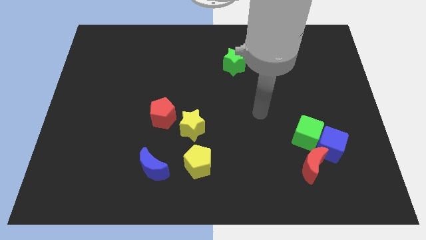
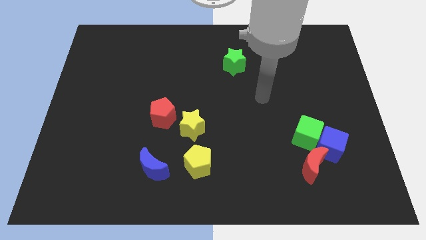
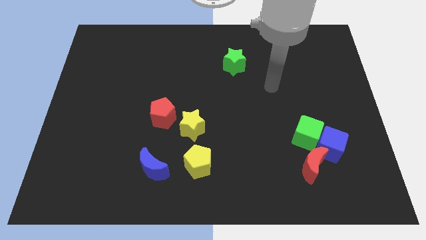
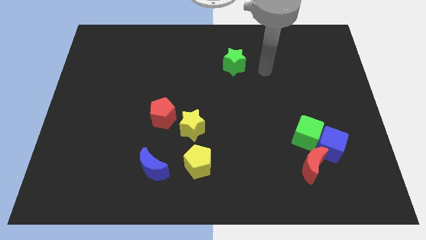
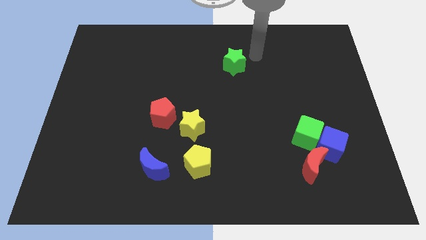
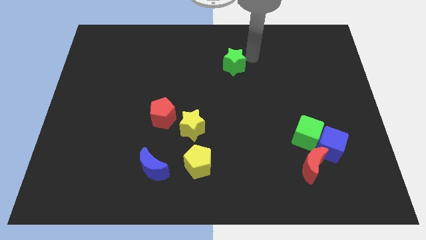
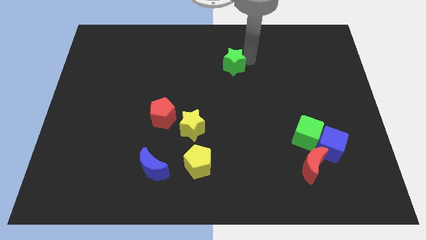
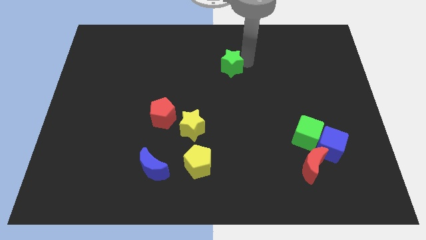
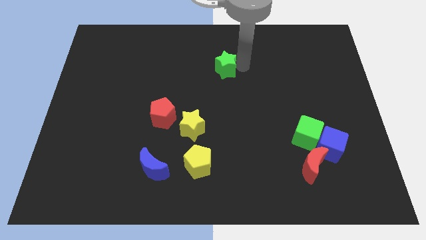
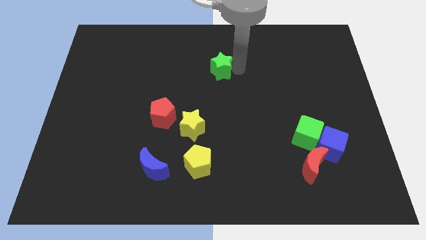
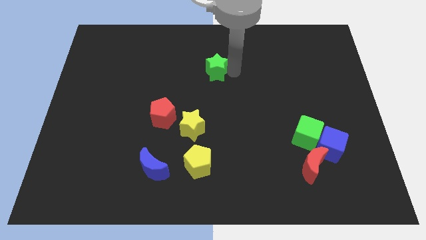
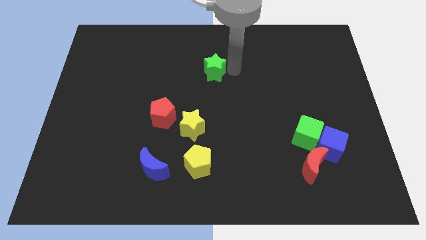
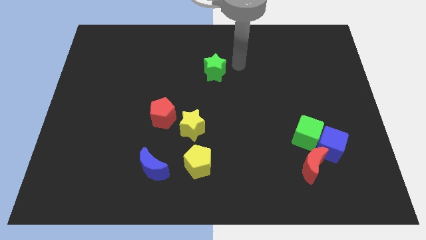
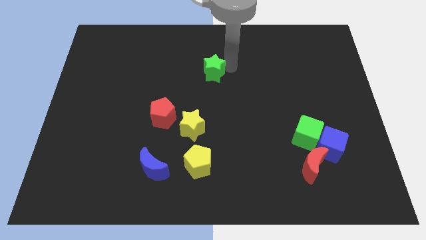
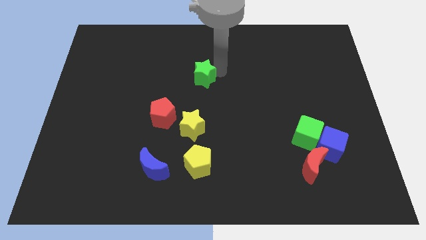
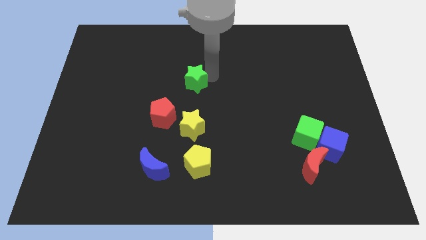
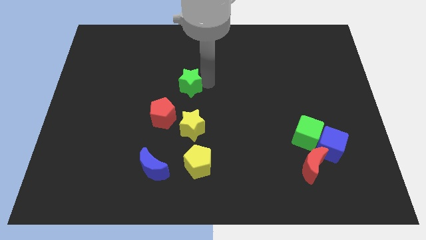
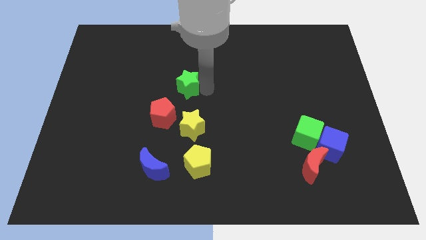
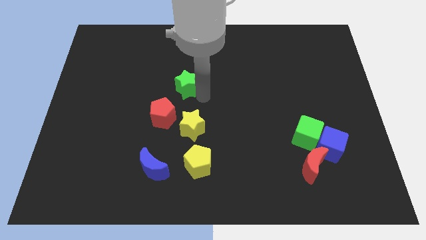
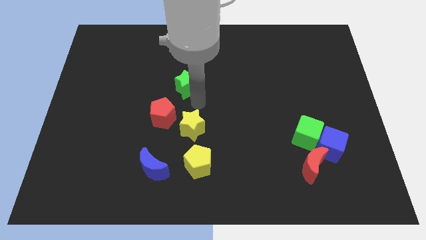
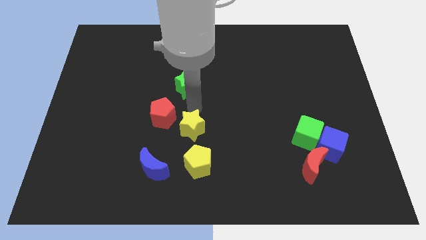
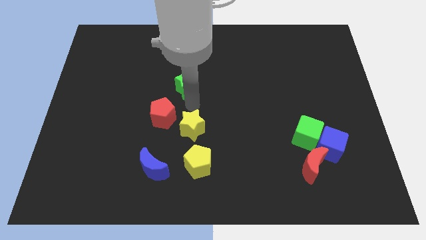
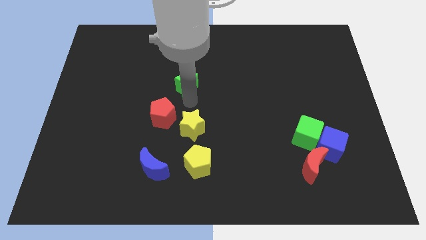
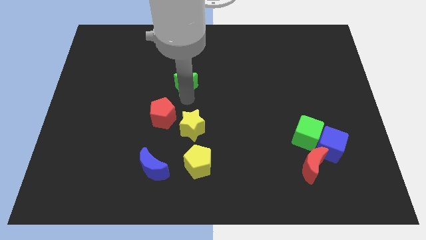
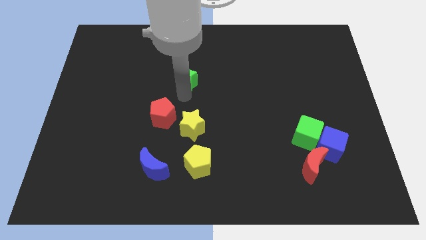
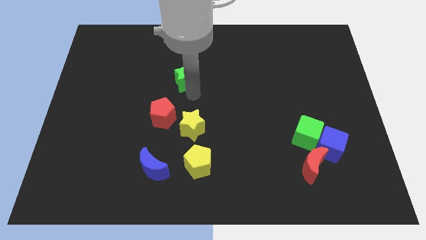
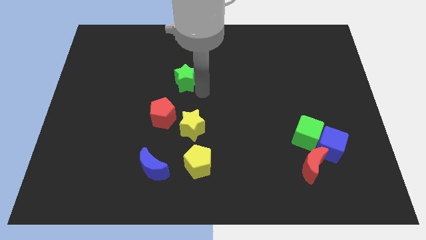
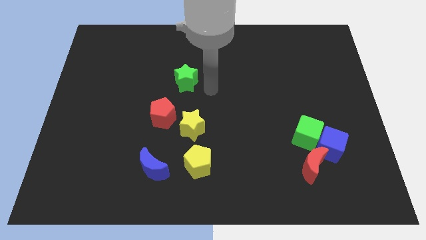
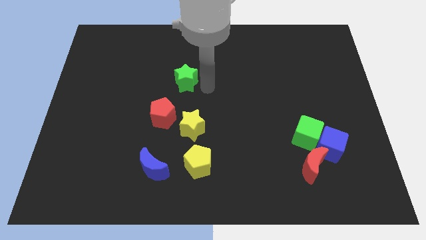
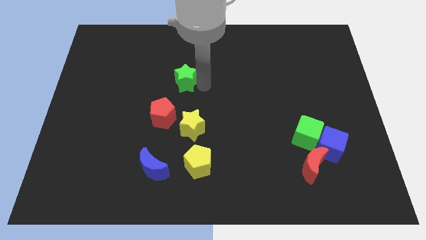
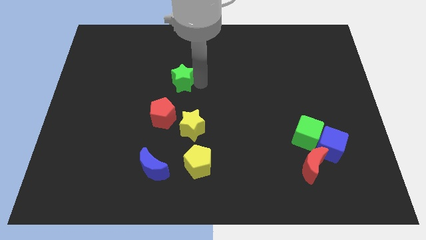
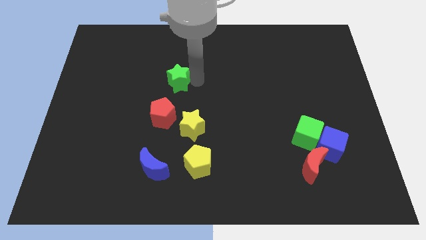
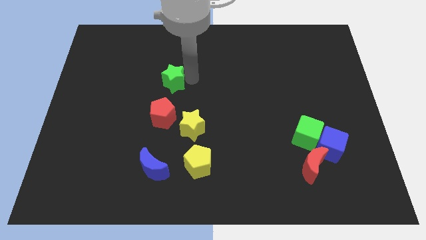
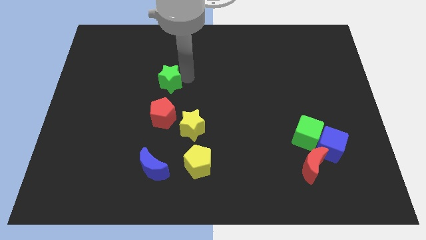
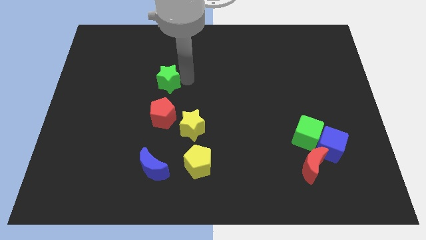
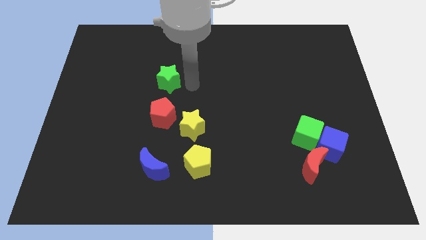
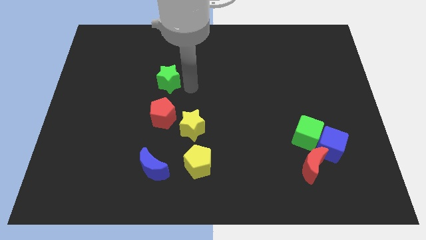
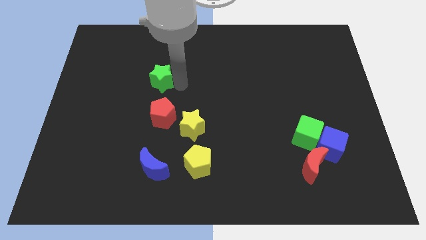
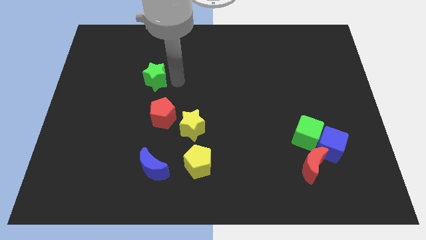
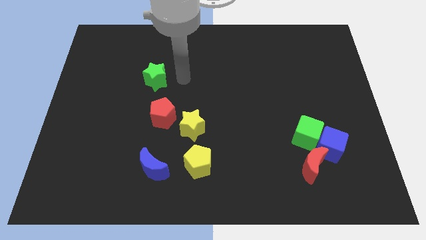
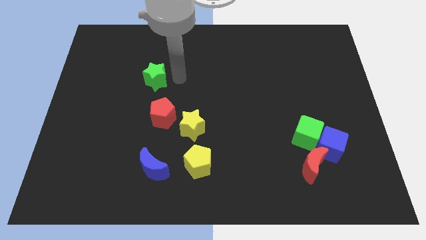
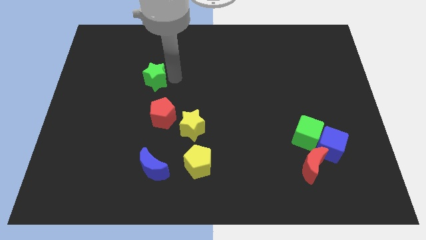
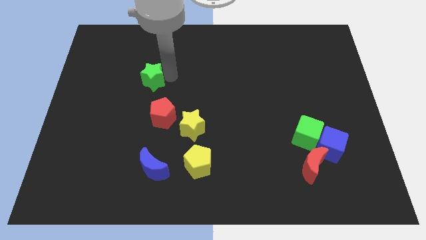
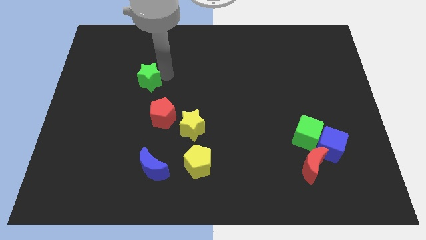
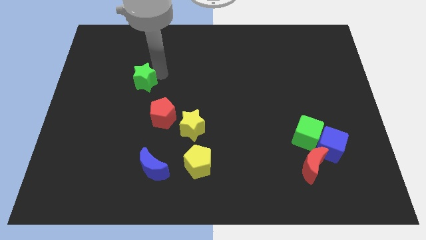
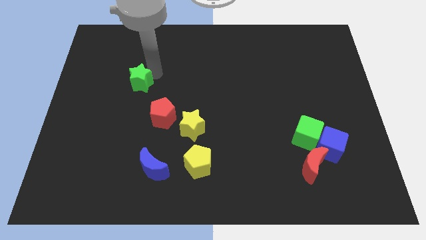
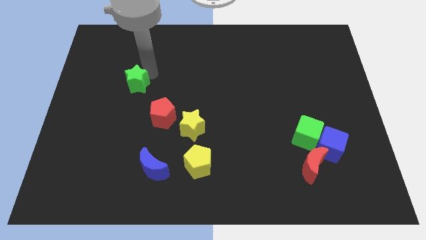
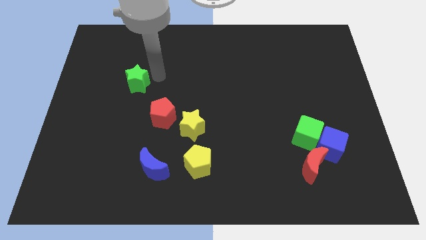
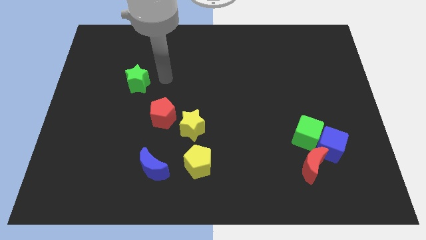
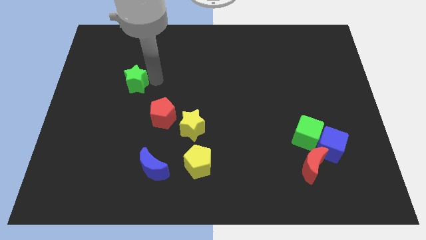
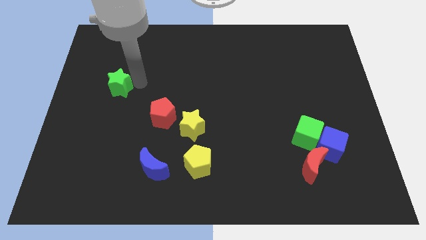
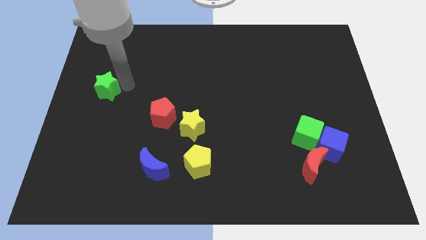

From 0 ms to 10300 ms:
put the green star to the left side of the board

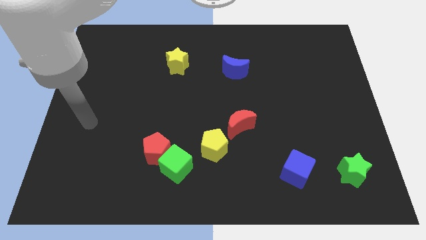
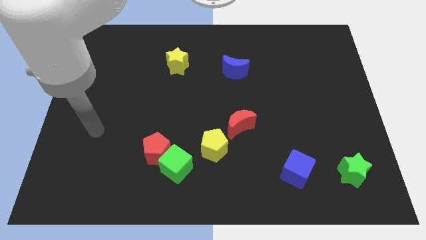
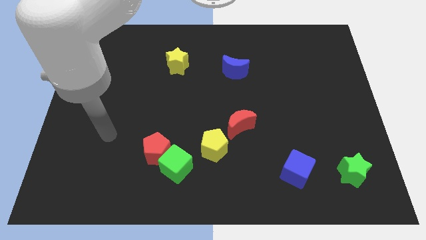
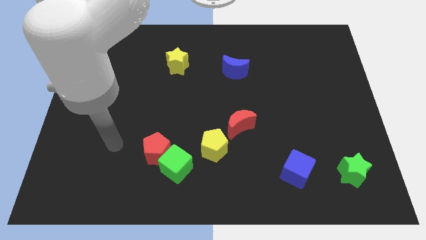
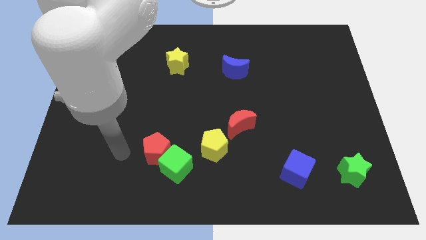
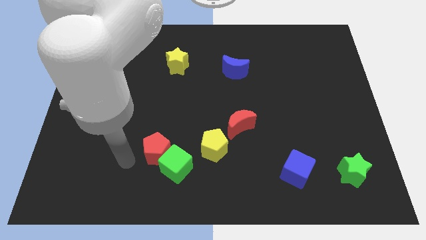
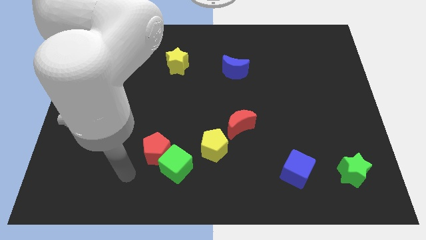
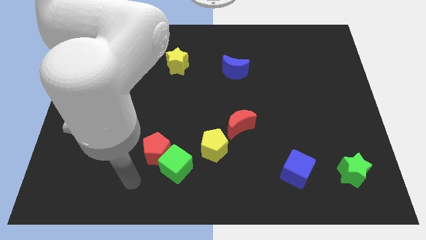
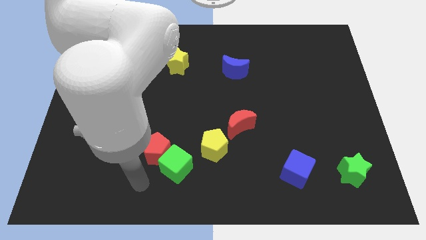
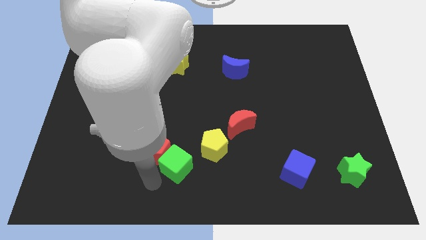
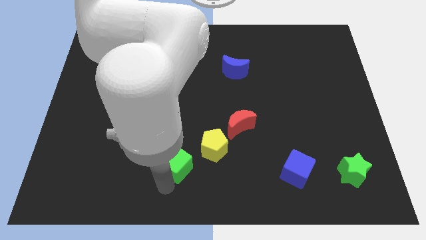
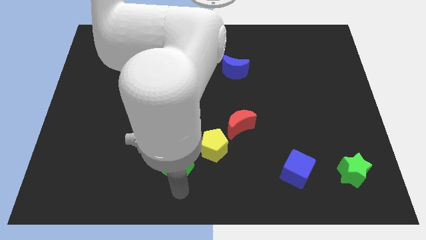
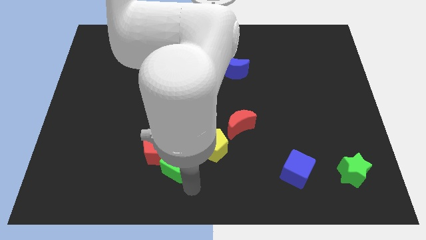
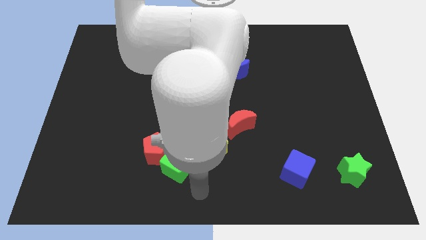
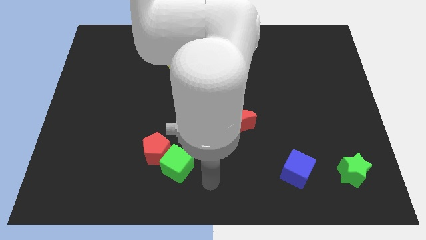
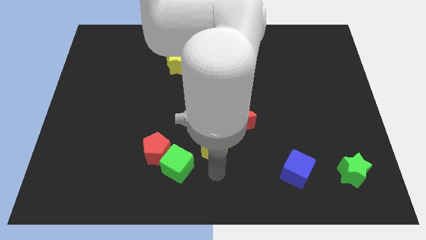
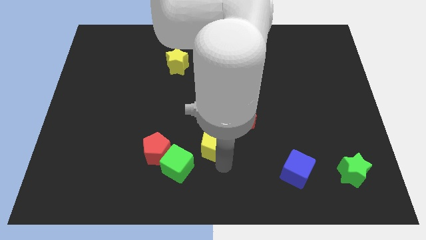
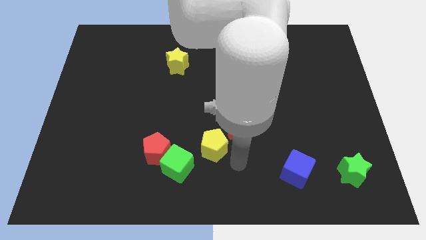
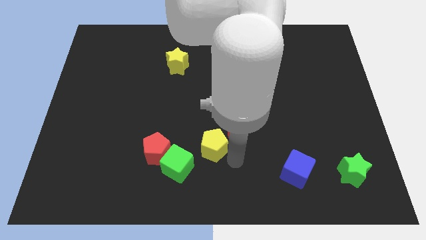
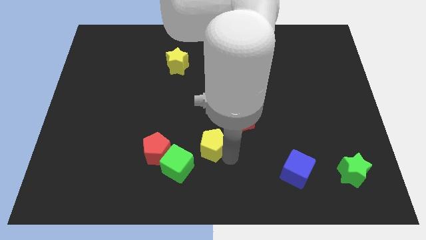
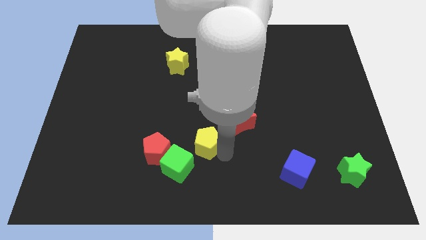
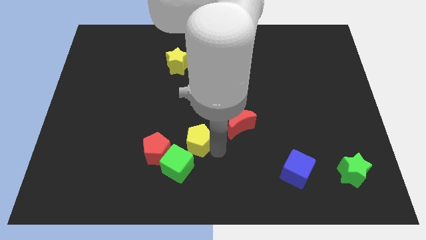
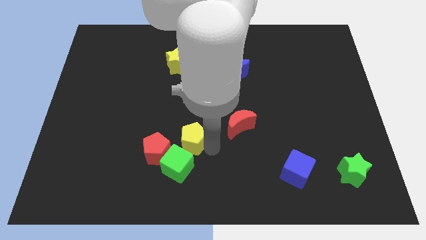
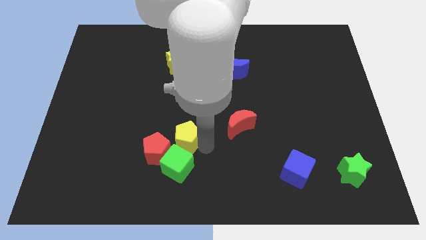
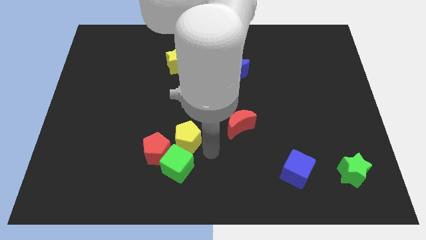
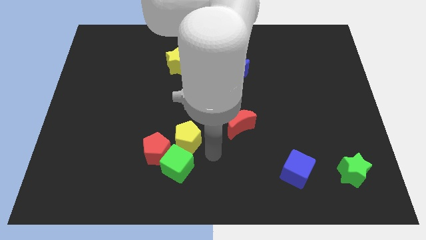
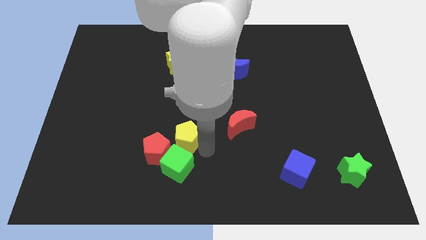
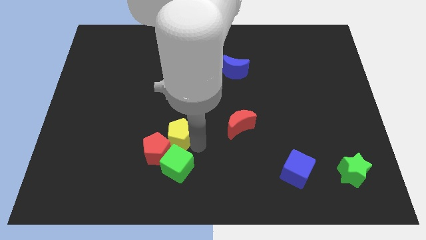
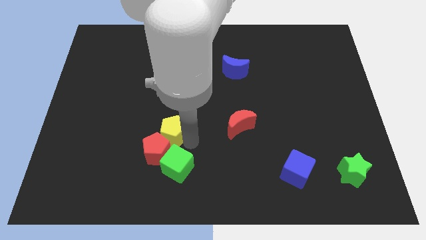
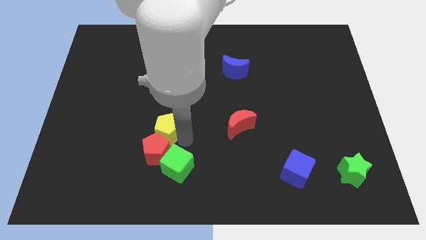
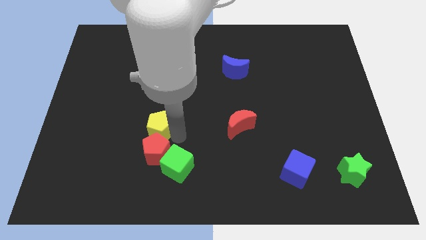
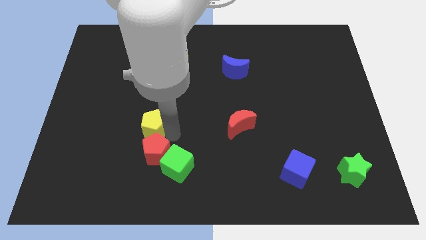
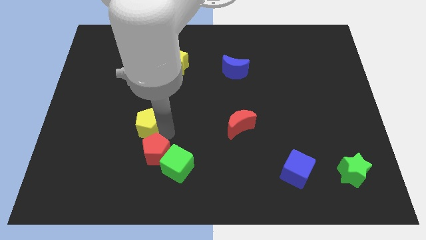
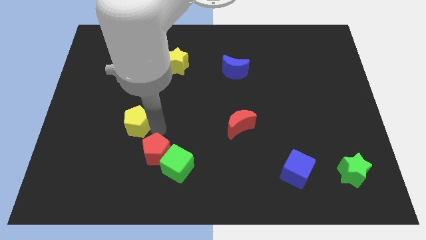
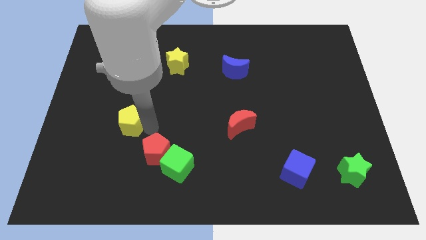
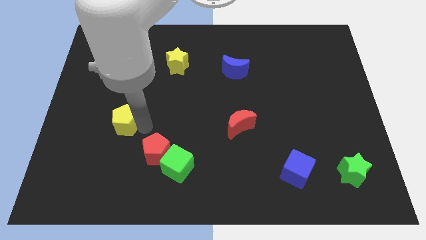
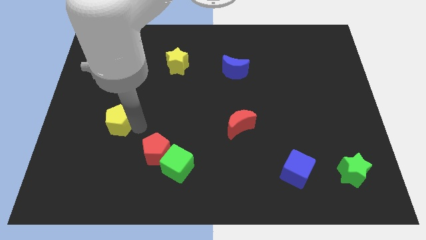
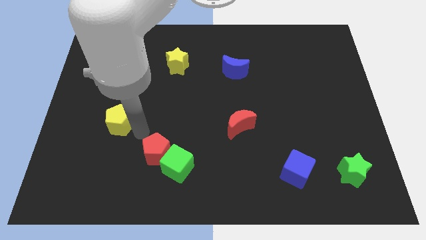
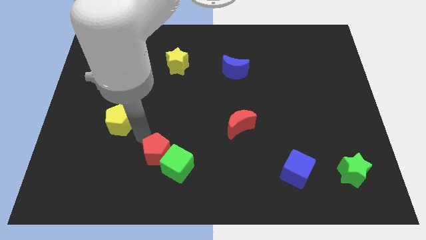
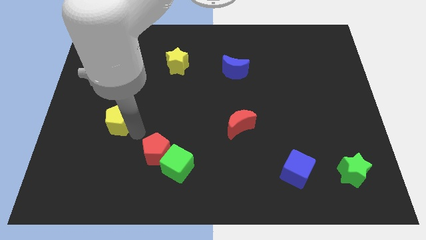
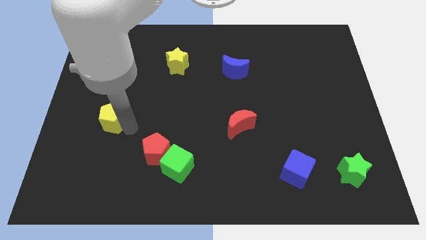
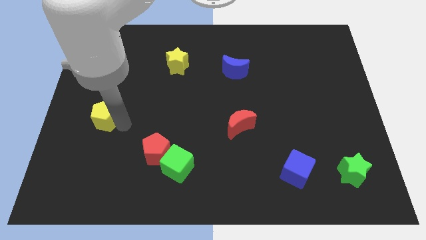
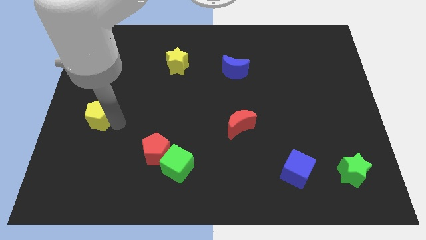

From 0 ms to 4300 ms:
put the yellow pentagon to the left side
